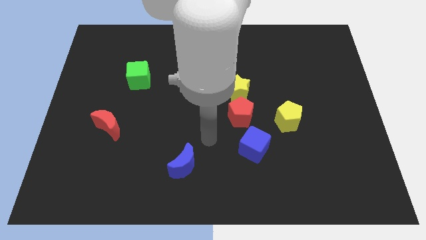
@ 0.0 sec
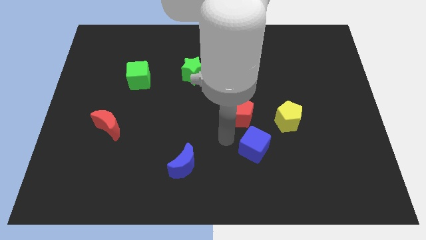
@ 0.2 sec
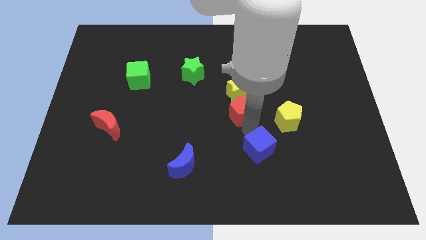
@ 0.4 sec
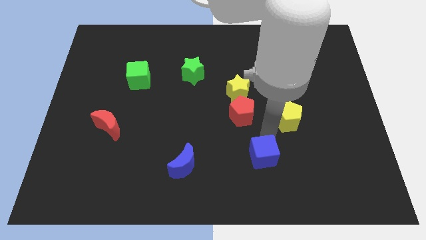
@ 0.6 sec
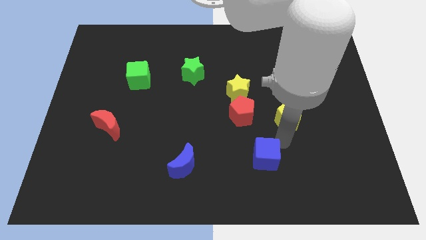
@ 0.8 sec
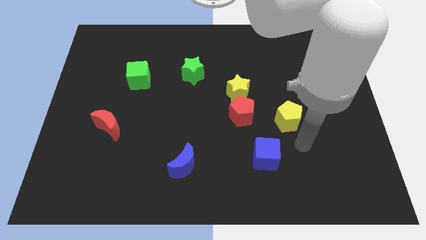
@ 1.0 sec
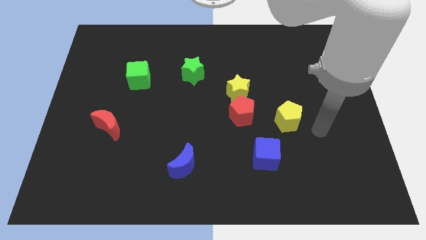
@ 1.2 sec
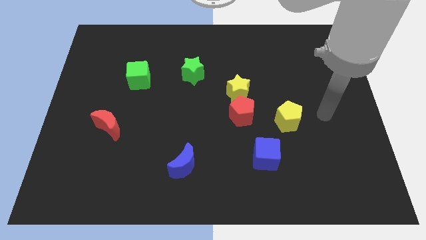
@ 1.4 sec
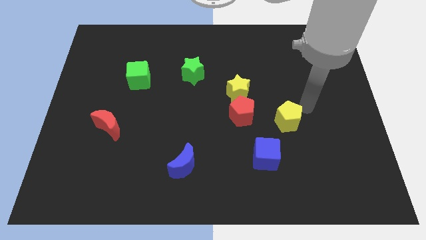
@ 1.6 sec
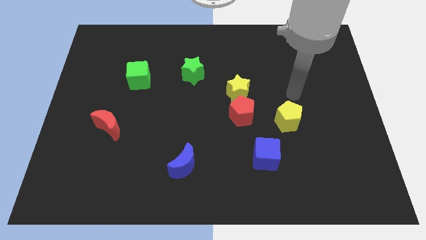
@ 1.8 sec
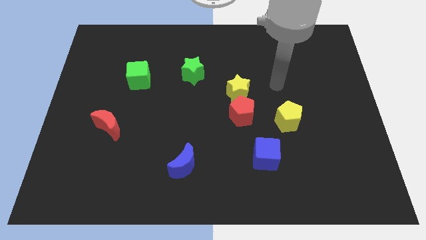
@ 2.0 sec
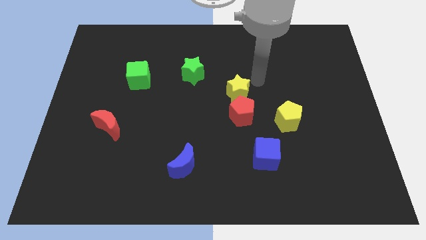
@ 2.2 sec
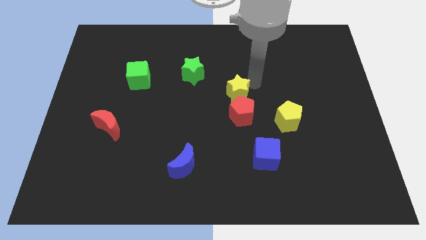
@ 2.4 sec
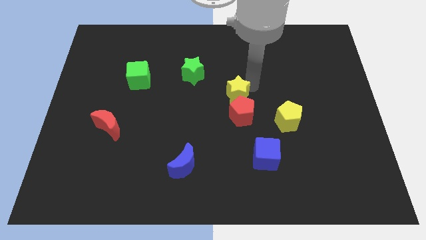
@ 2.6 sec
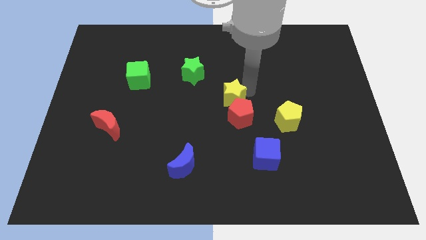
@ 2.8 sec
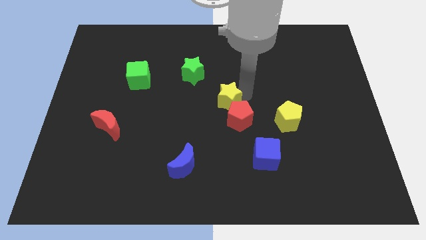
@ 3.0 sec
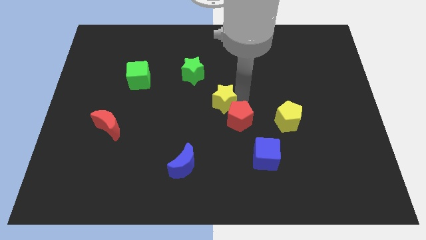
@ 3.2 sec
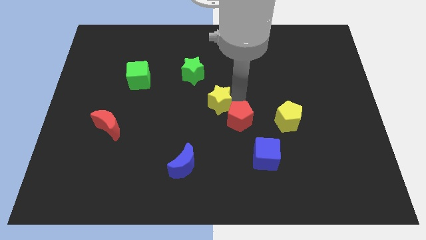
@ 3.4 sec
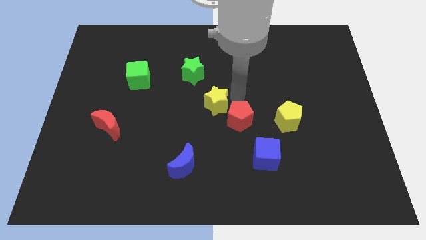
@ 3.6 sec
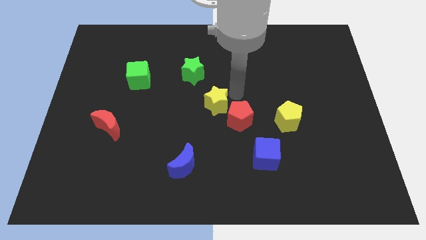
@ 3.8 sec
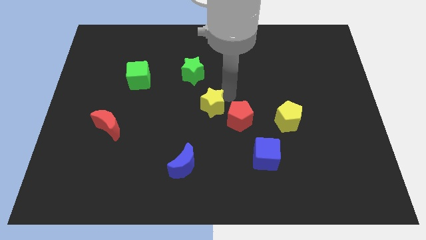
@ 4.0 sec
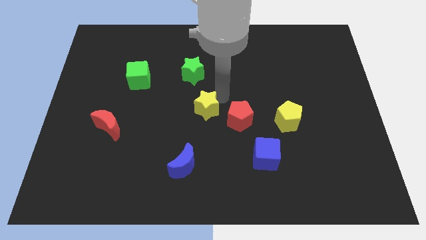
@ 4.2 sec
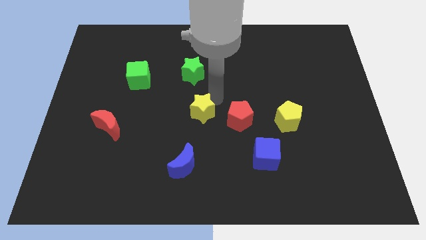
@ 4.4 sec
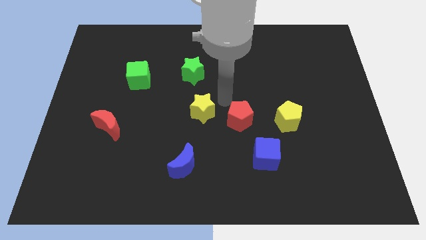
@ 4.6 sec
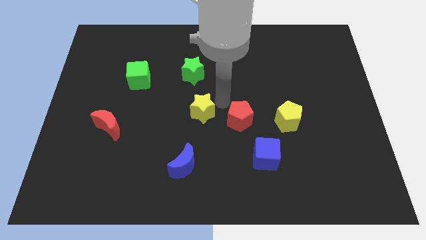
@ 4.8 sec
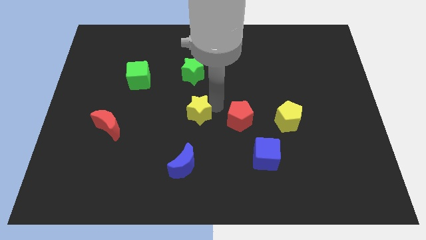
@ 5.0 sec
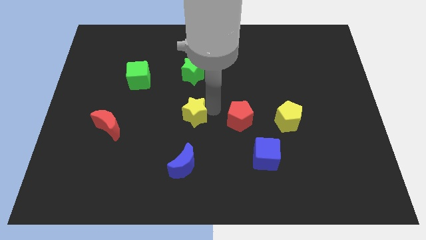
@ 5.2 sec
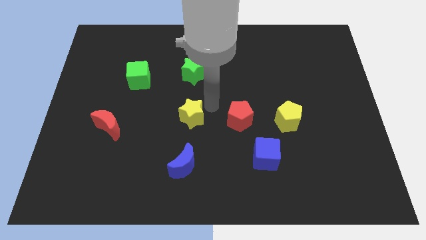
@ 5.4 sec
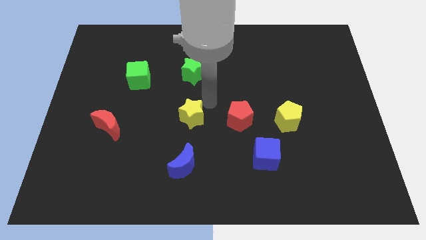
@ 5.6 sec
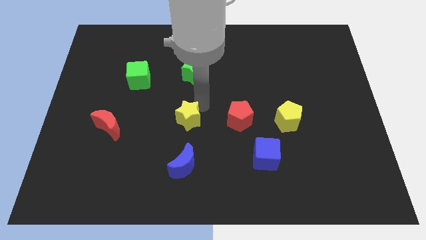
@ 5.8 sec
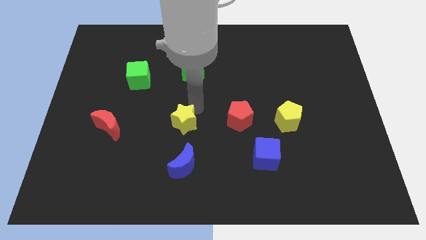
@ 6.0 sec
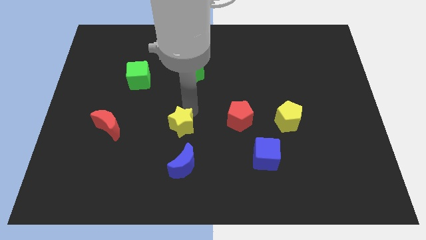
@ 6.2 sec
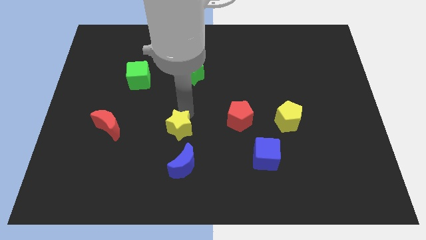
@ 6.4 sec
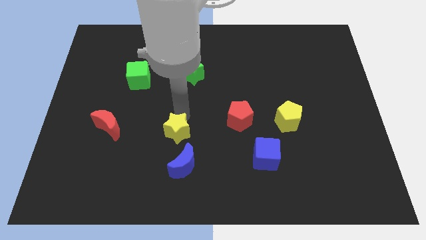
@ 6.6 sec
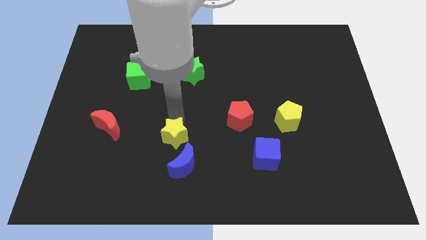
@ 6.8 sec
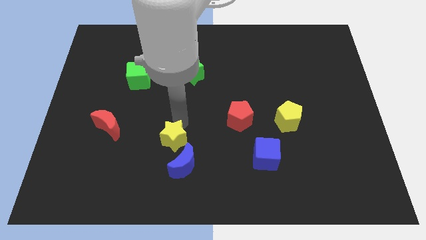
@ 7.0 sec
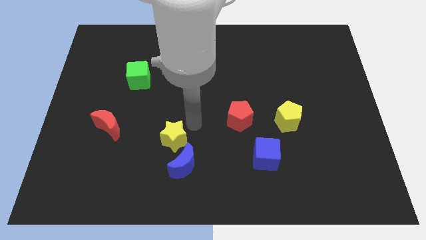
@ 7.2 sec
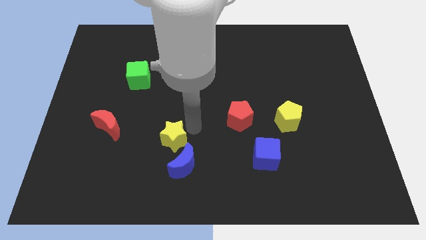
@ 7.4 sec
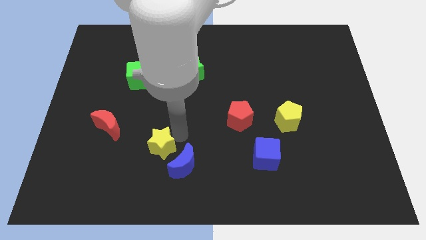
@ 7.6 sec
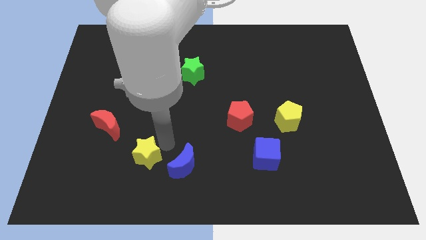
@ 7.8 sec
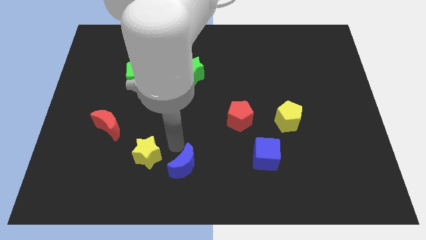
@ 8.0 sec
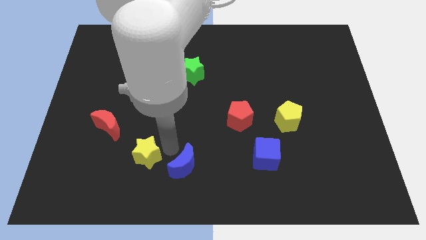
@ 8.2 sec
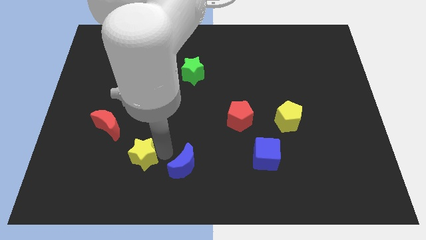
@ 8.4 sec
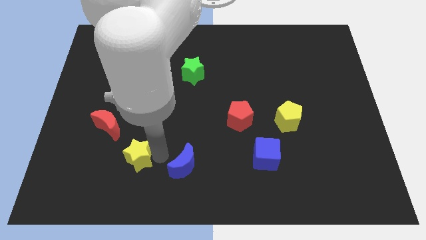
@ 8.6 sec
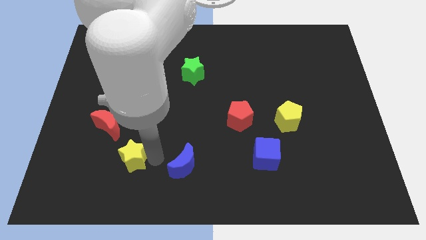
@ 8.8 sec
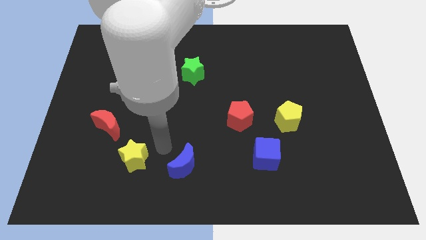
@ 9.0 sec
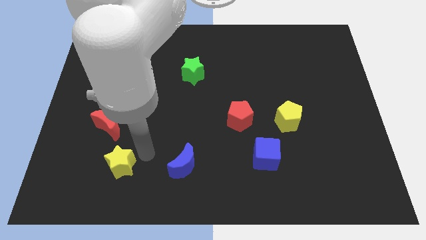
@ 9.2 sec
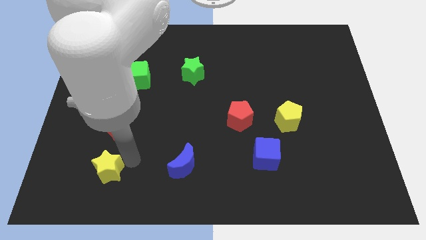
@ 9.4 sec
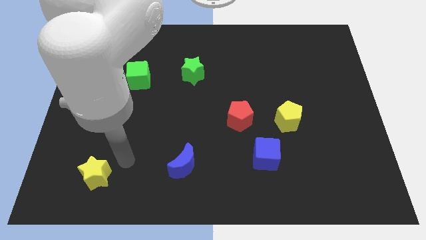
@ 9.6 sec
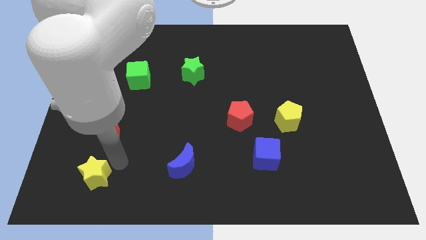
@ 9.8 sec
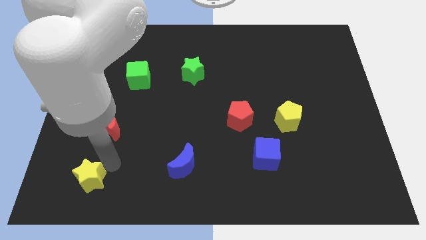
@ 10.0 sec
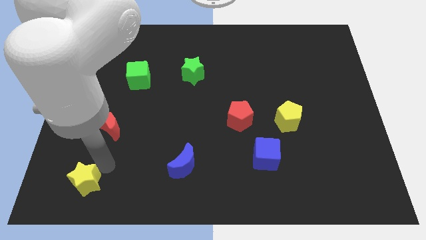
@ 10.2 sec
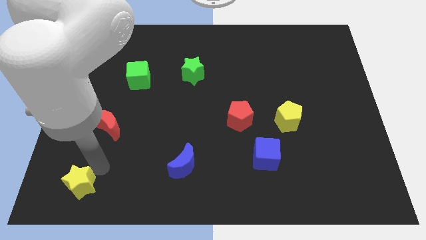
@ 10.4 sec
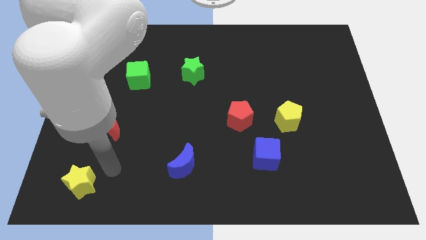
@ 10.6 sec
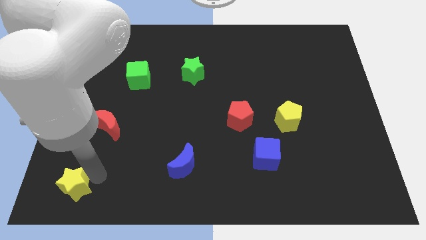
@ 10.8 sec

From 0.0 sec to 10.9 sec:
push the yellow star to the bottom left of the board

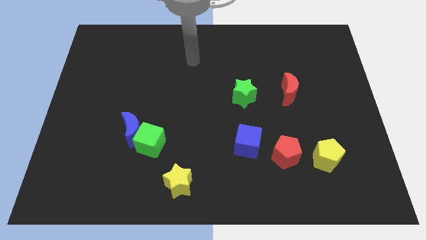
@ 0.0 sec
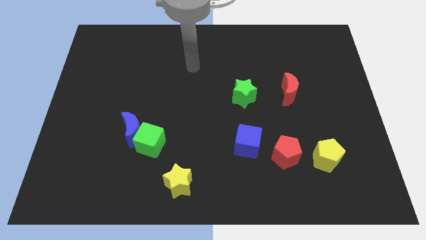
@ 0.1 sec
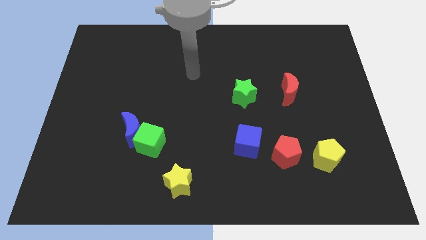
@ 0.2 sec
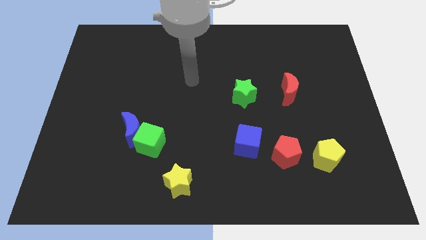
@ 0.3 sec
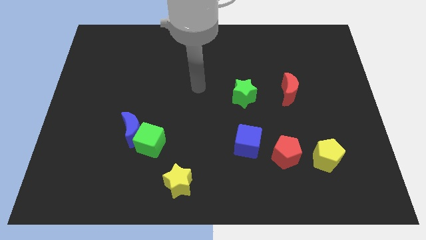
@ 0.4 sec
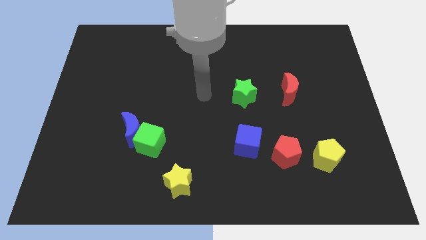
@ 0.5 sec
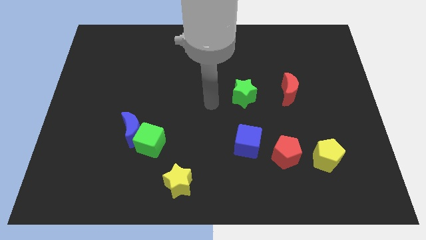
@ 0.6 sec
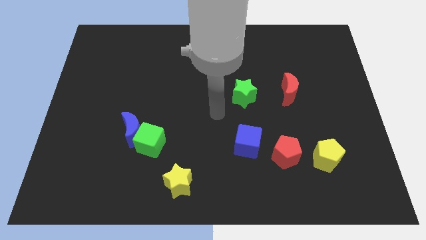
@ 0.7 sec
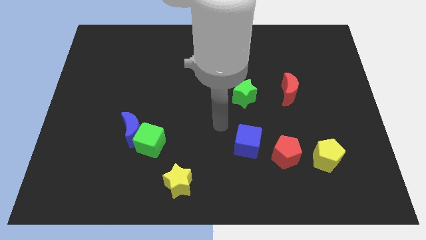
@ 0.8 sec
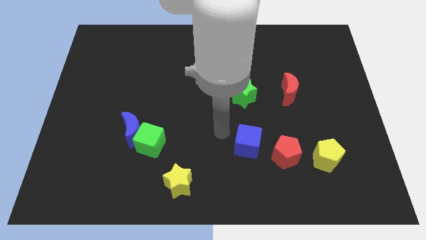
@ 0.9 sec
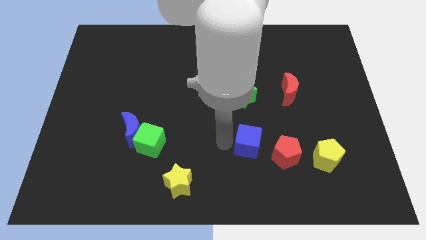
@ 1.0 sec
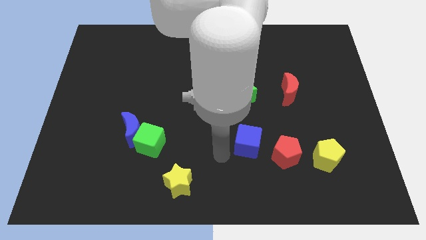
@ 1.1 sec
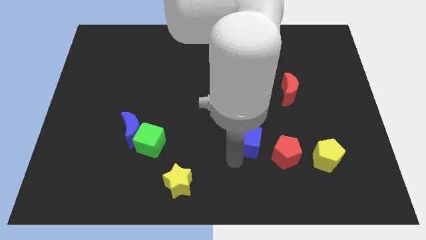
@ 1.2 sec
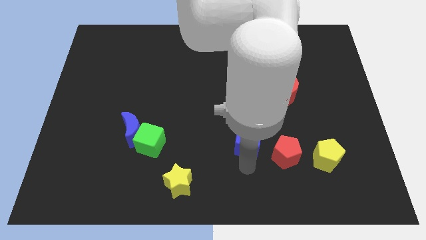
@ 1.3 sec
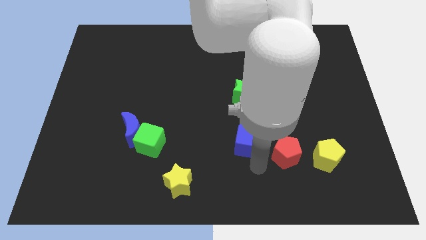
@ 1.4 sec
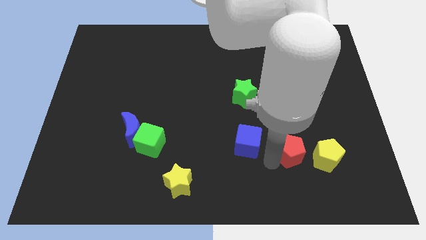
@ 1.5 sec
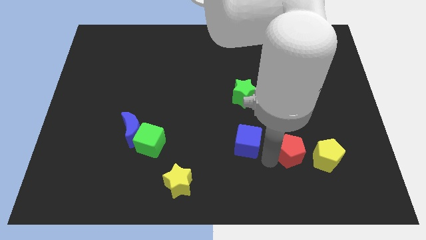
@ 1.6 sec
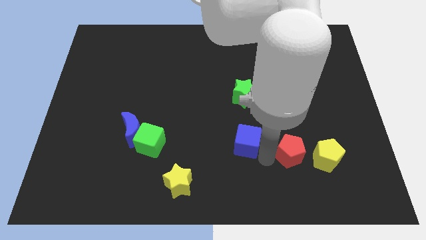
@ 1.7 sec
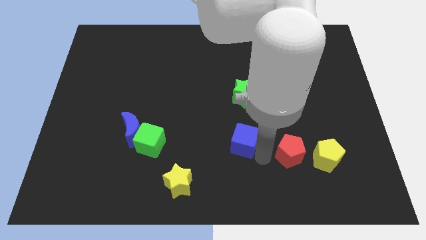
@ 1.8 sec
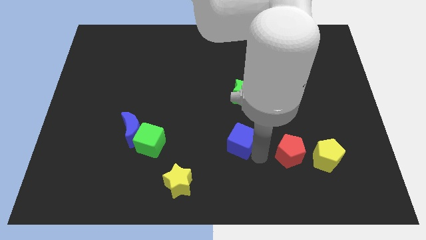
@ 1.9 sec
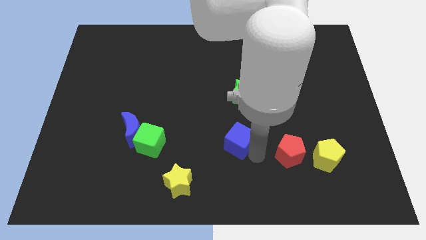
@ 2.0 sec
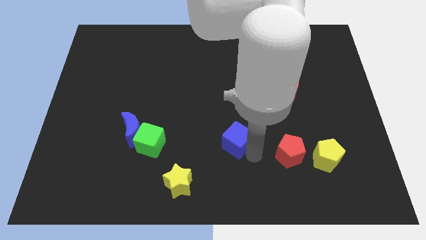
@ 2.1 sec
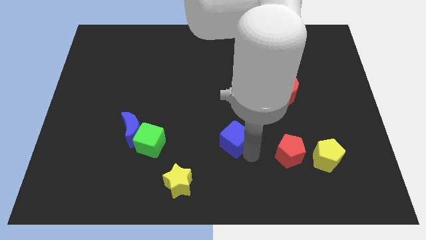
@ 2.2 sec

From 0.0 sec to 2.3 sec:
push the blue cube to the center
